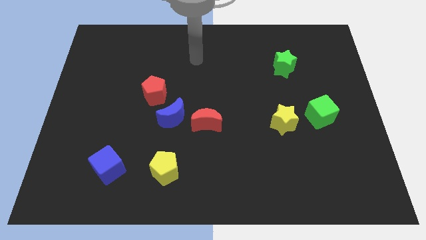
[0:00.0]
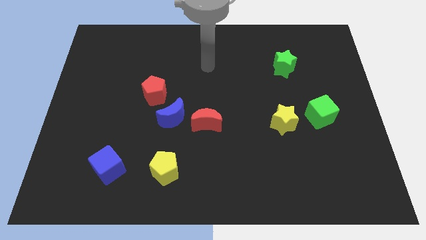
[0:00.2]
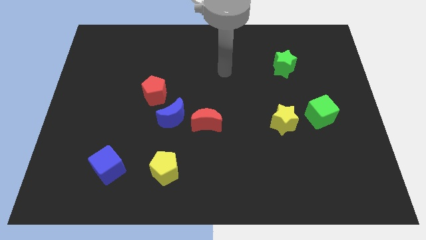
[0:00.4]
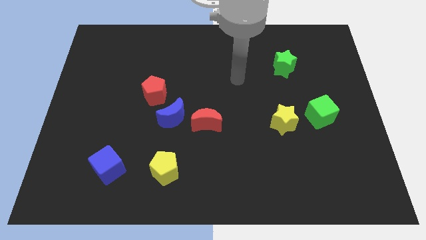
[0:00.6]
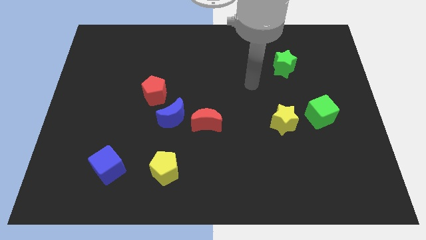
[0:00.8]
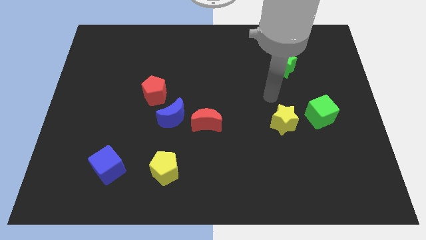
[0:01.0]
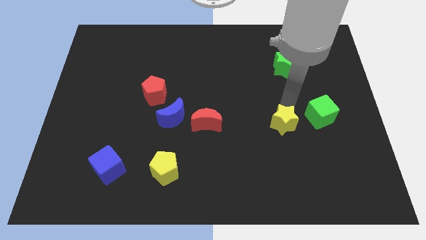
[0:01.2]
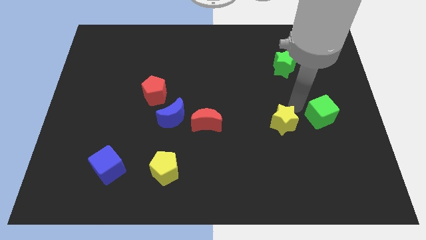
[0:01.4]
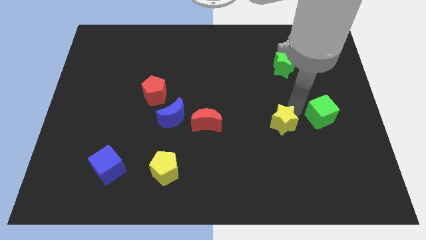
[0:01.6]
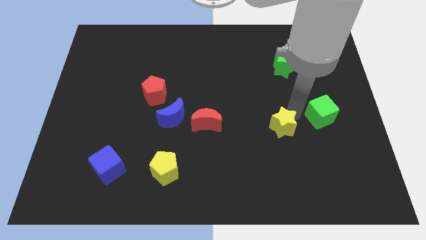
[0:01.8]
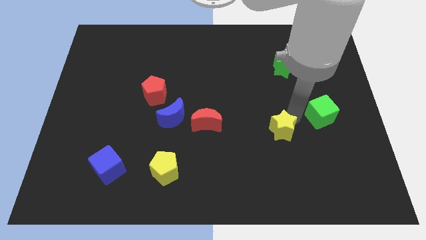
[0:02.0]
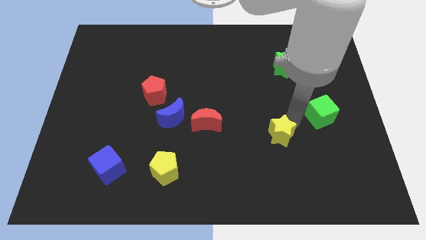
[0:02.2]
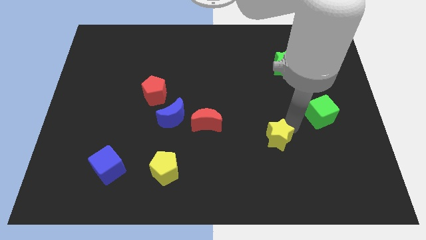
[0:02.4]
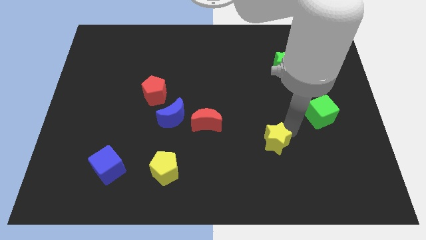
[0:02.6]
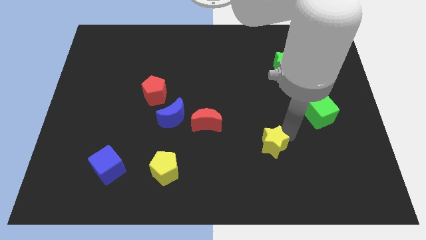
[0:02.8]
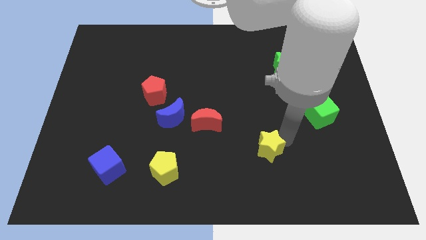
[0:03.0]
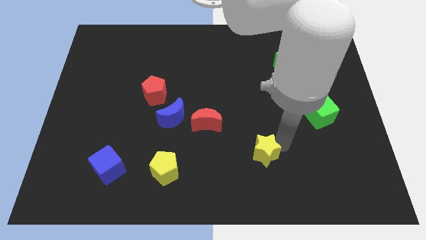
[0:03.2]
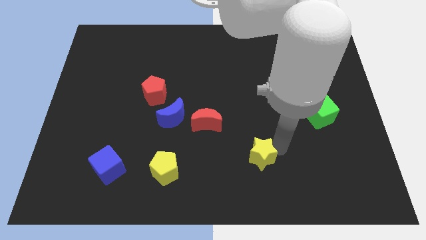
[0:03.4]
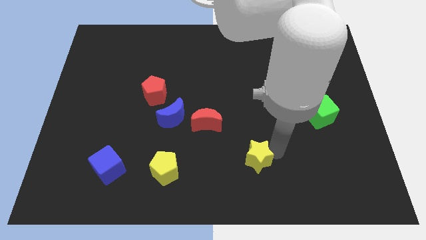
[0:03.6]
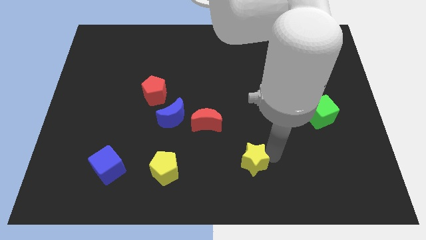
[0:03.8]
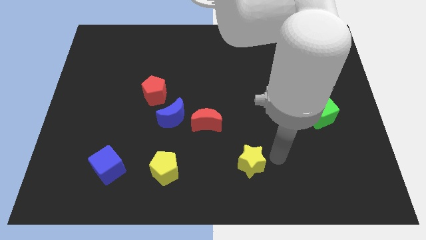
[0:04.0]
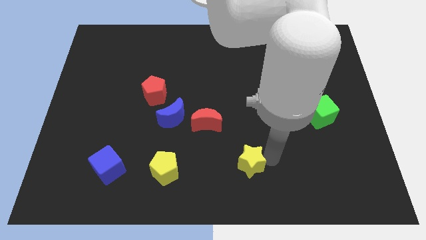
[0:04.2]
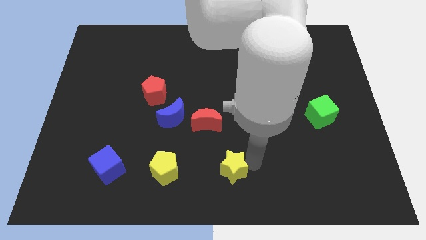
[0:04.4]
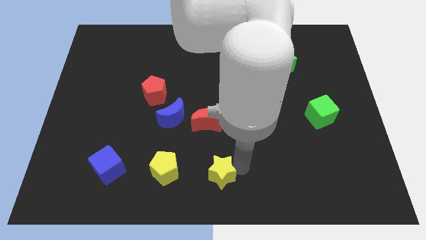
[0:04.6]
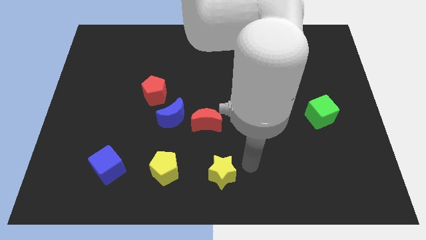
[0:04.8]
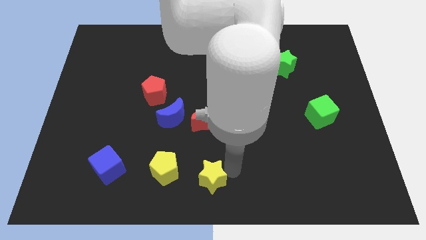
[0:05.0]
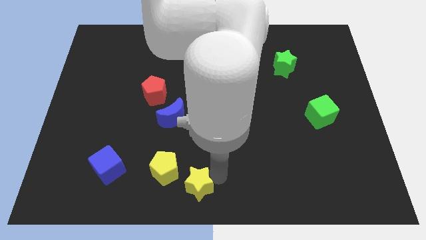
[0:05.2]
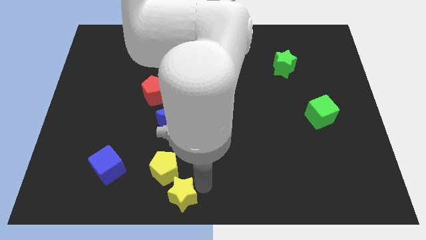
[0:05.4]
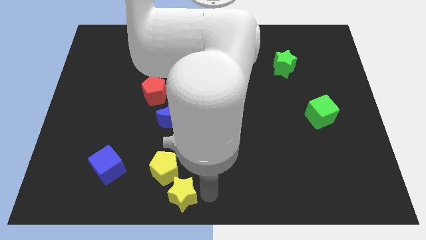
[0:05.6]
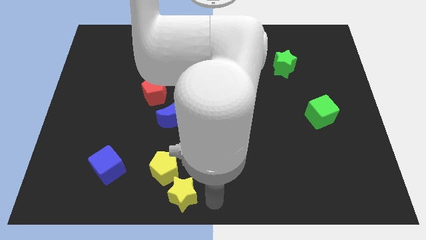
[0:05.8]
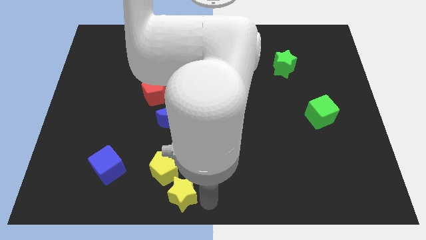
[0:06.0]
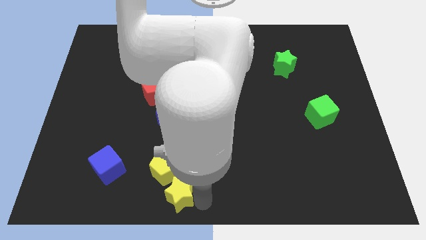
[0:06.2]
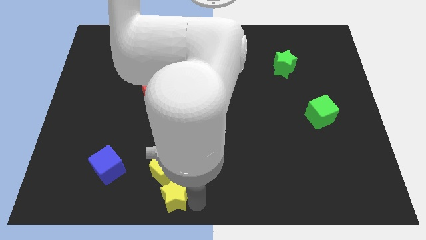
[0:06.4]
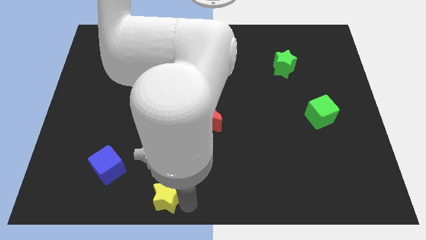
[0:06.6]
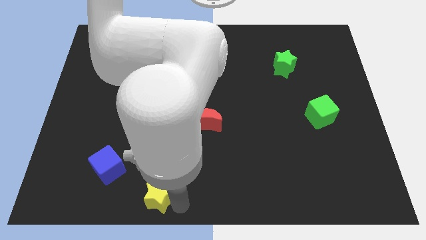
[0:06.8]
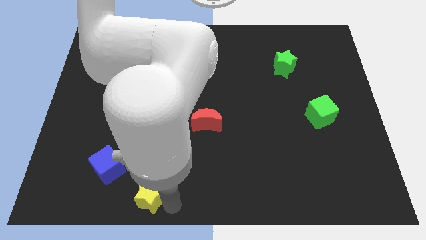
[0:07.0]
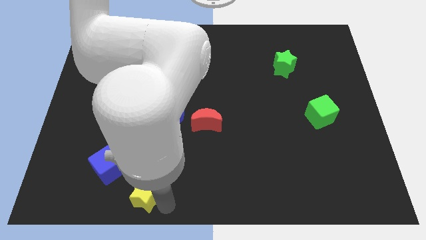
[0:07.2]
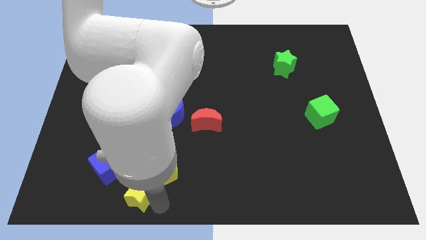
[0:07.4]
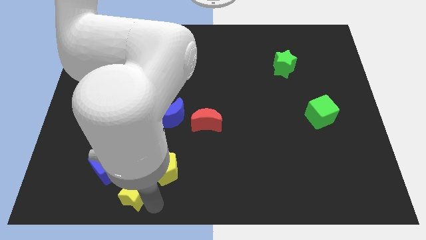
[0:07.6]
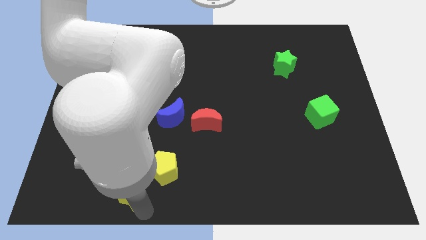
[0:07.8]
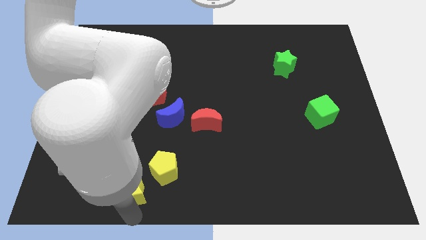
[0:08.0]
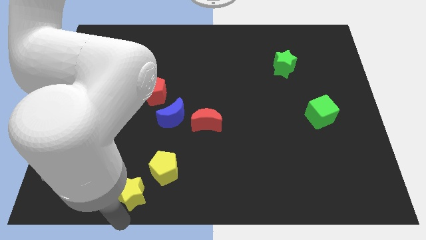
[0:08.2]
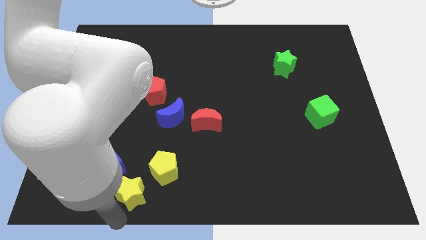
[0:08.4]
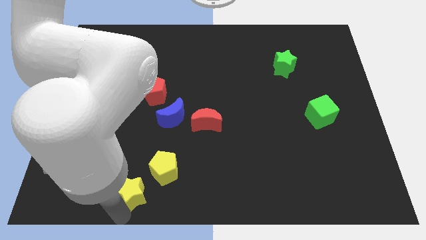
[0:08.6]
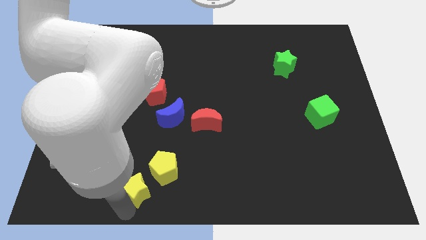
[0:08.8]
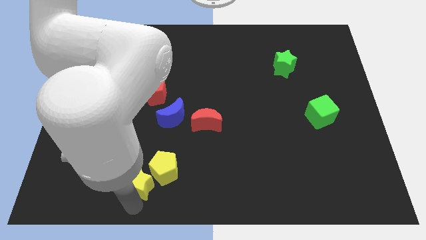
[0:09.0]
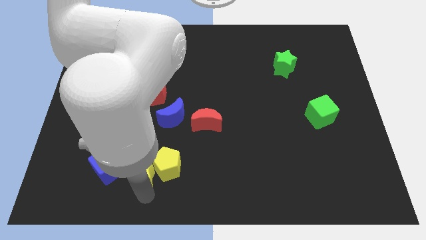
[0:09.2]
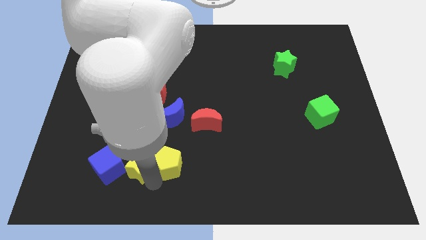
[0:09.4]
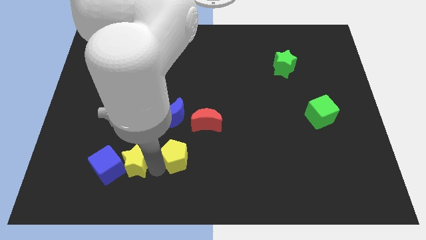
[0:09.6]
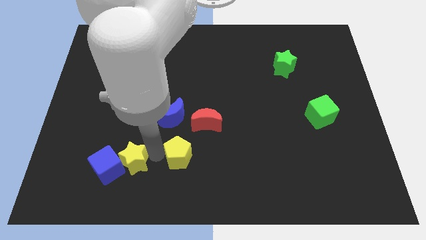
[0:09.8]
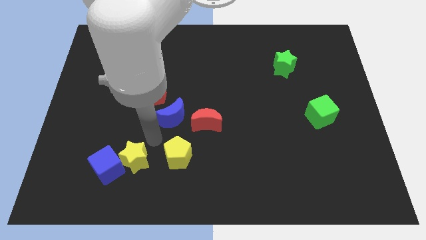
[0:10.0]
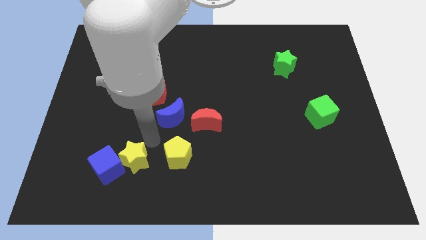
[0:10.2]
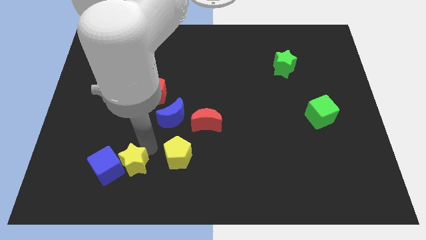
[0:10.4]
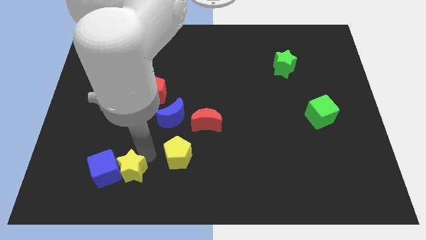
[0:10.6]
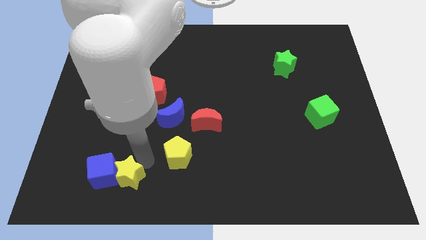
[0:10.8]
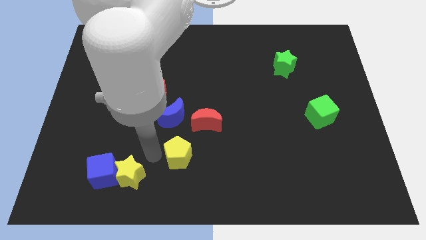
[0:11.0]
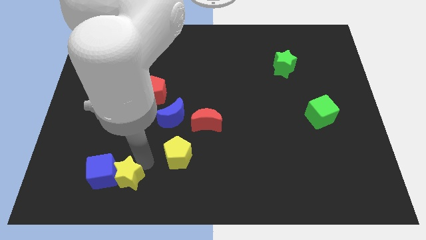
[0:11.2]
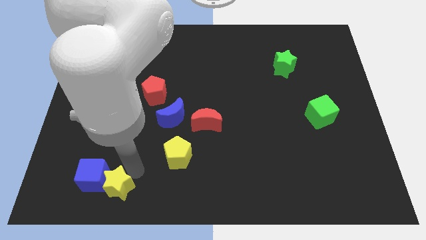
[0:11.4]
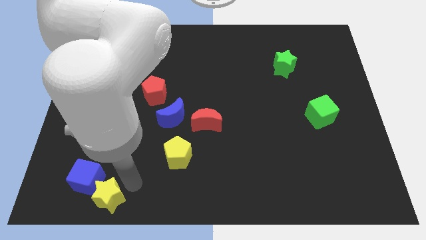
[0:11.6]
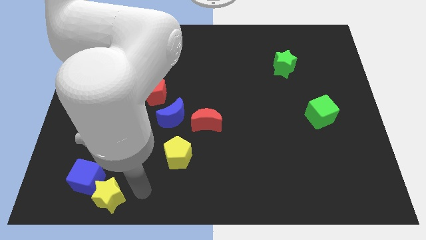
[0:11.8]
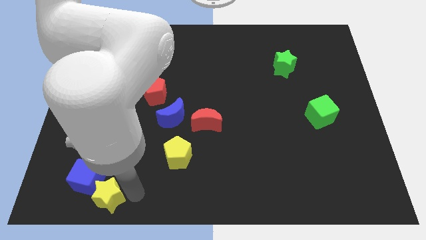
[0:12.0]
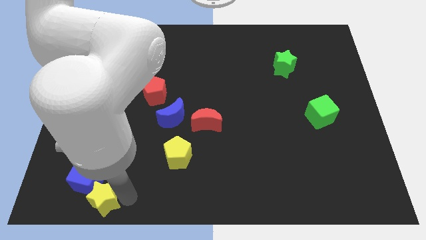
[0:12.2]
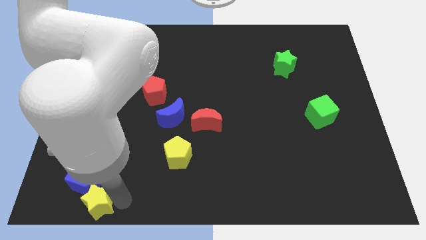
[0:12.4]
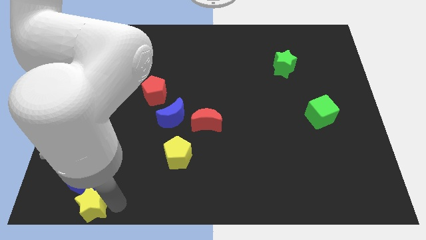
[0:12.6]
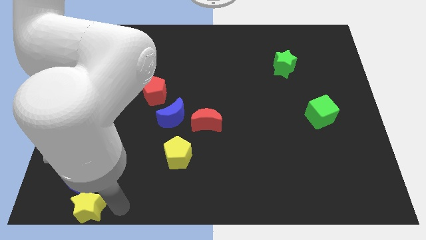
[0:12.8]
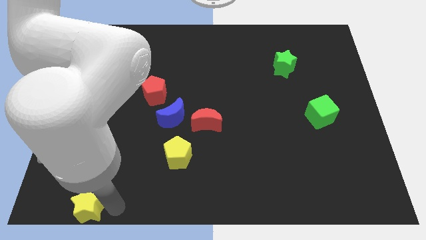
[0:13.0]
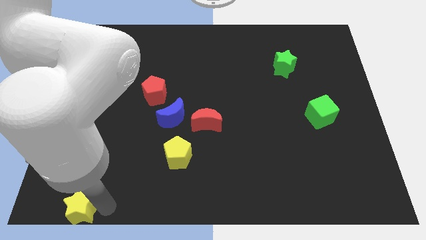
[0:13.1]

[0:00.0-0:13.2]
put the yellow star to the bottom left corner
